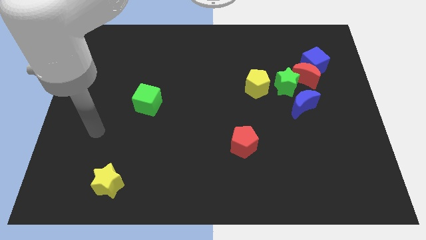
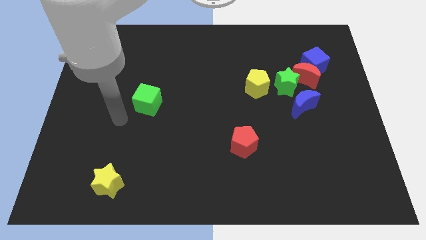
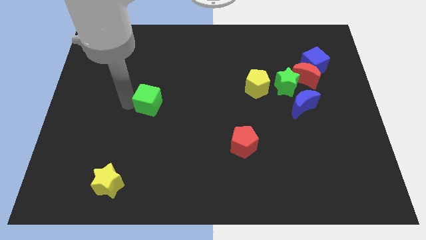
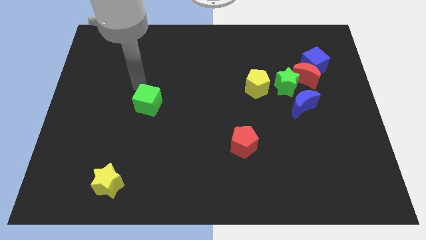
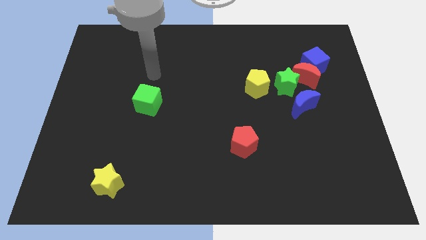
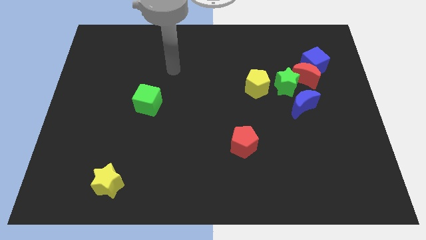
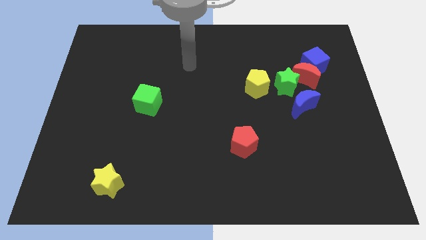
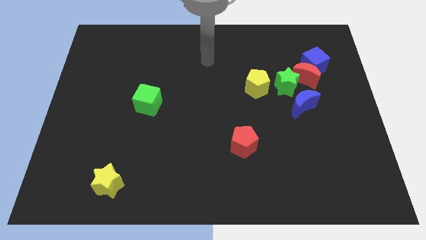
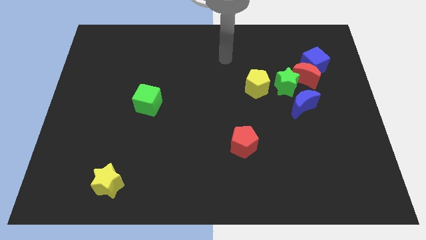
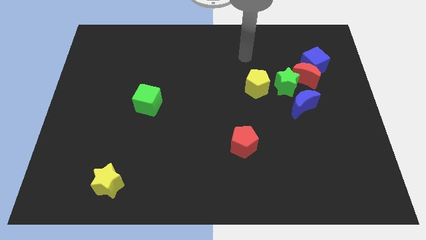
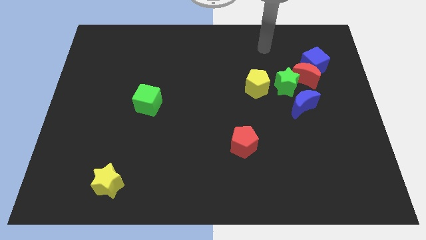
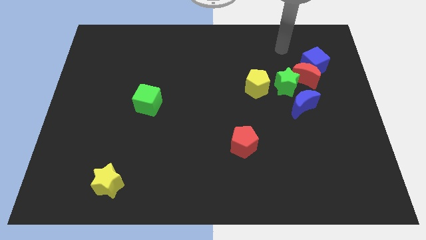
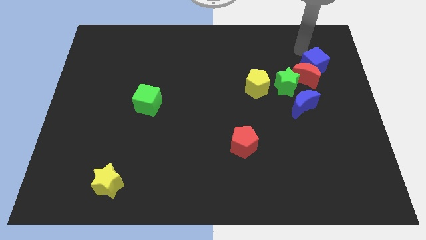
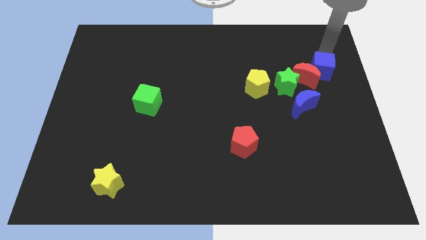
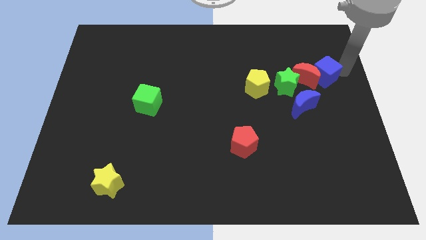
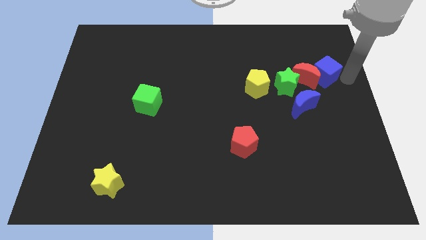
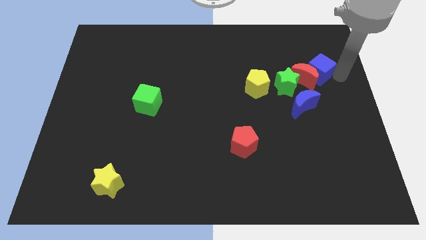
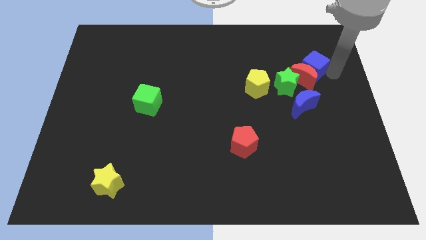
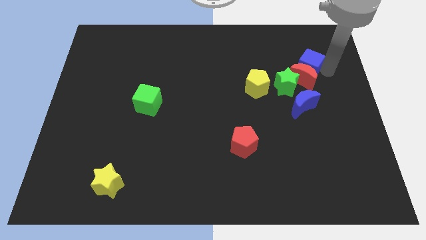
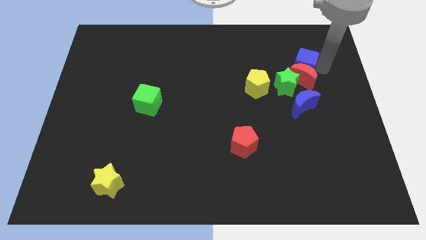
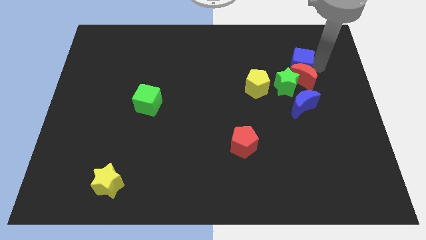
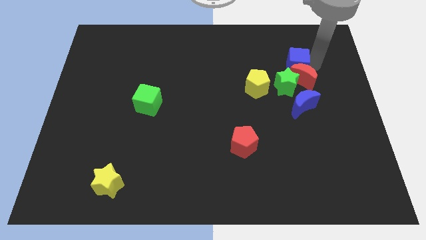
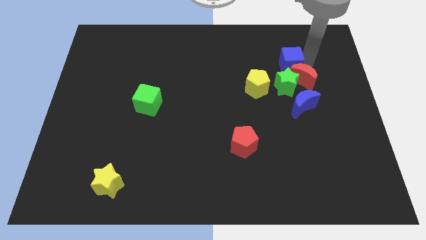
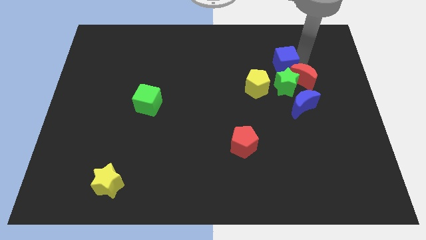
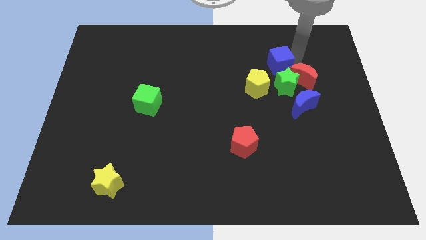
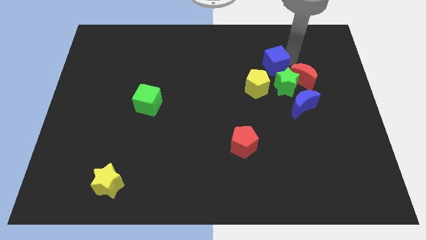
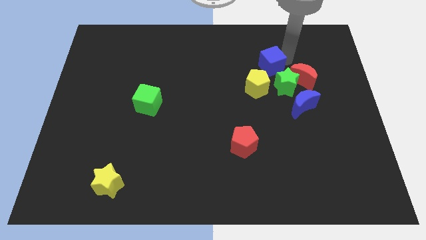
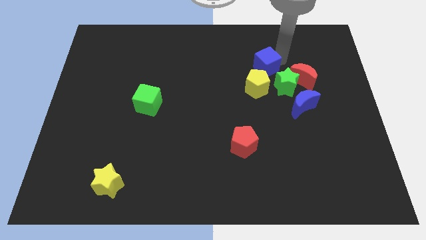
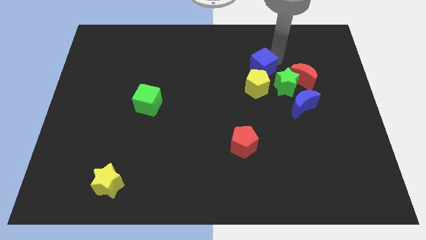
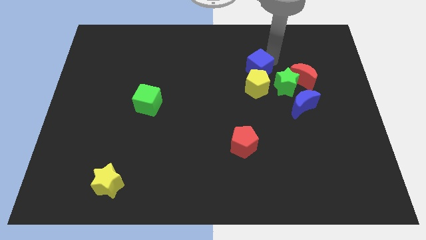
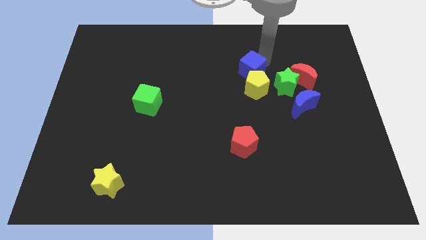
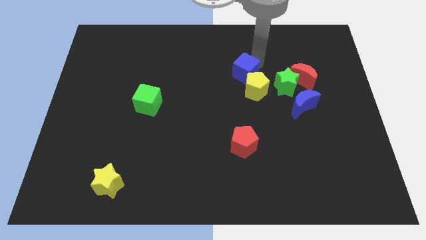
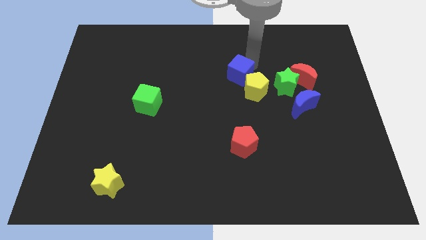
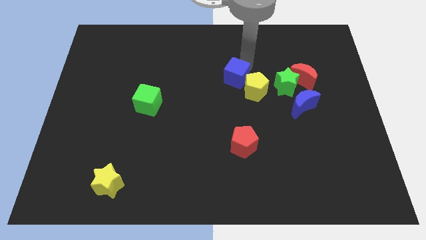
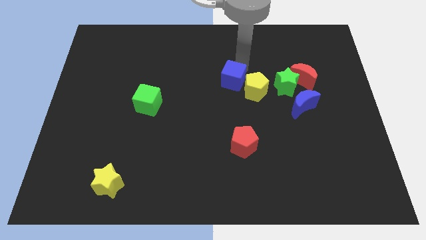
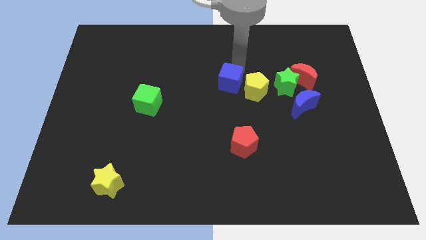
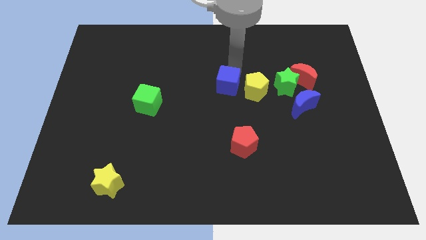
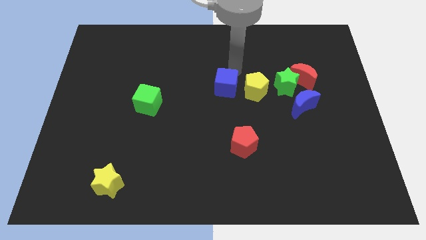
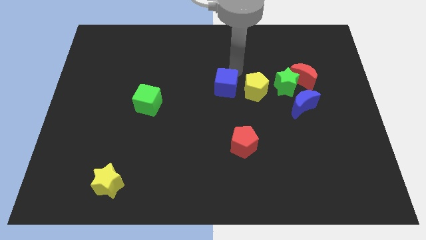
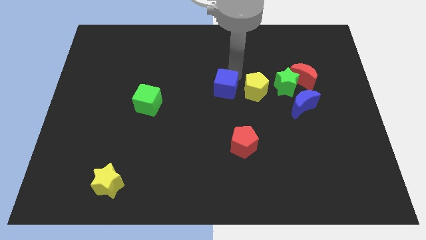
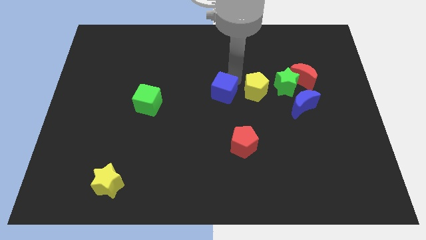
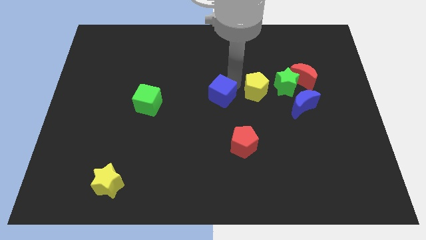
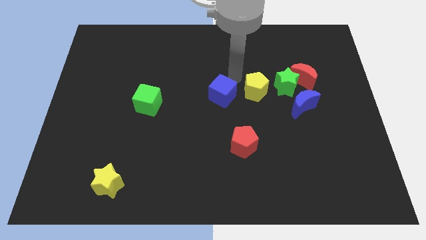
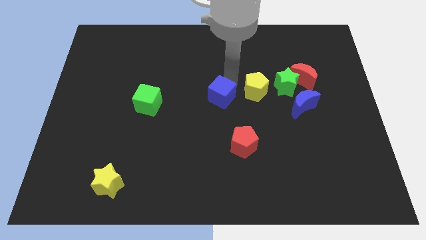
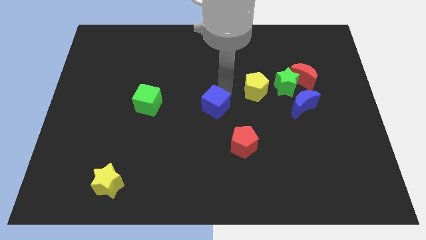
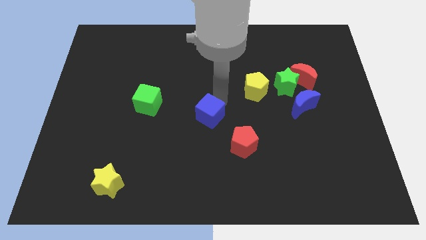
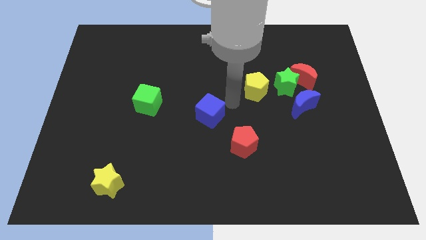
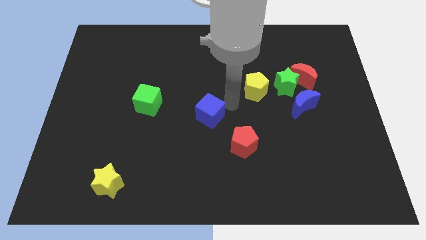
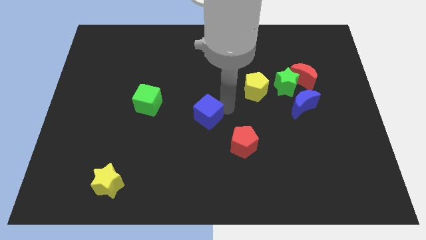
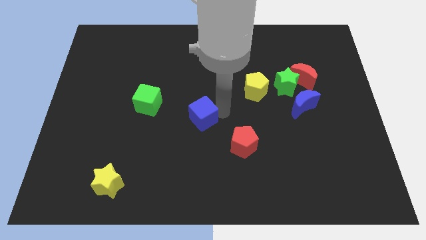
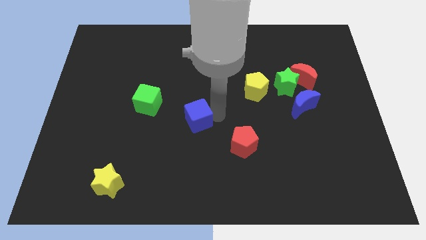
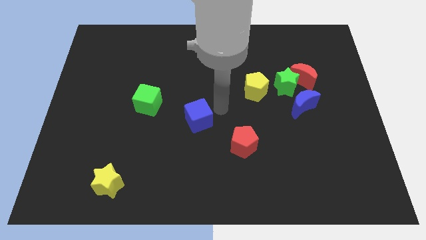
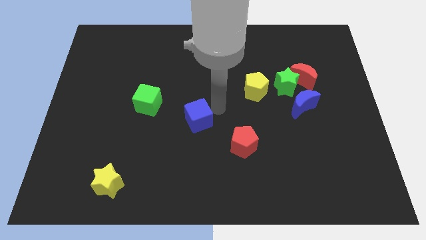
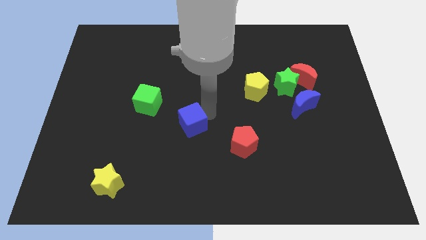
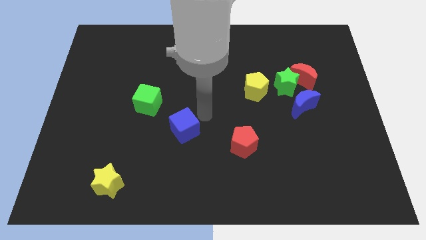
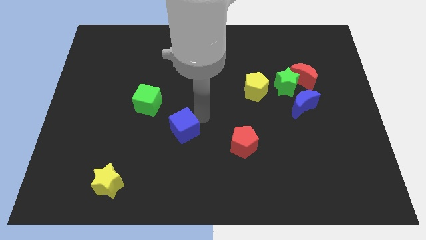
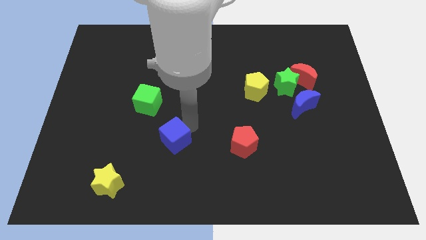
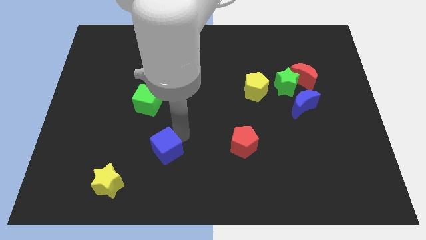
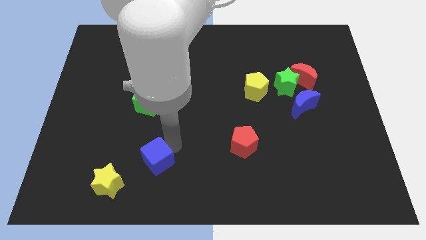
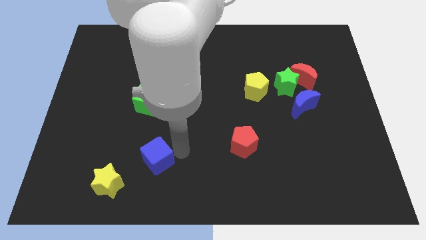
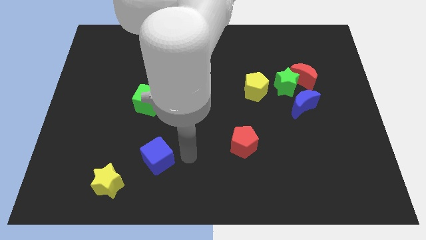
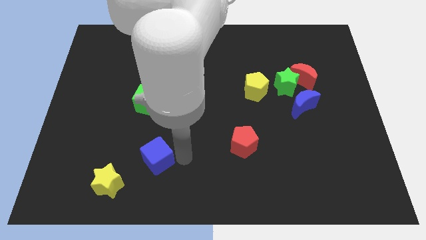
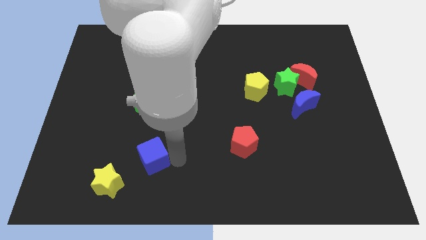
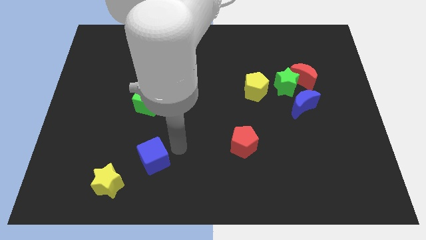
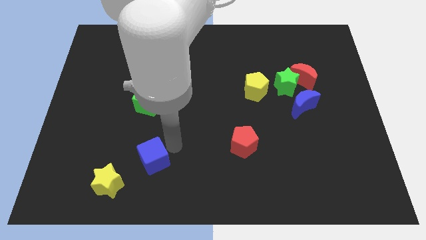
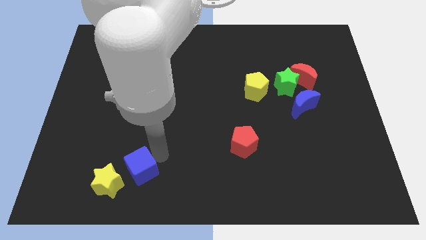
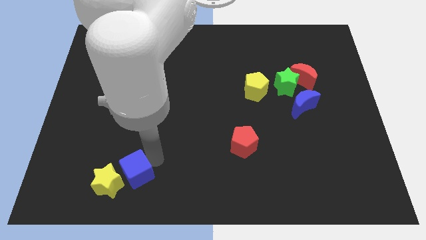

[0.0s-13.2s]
put the blue cube towards the yellow star

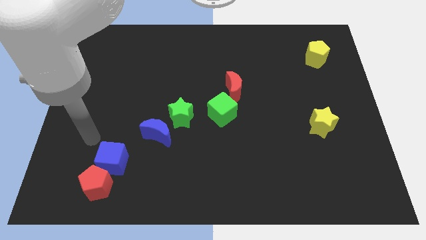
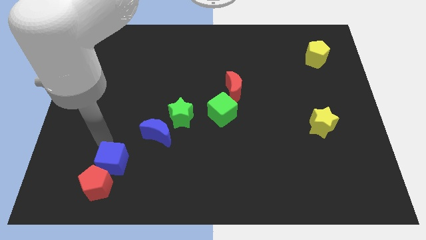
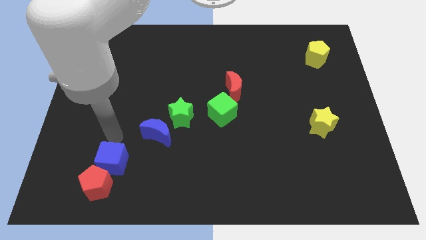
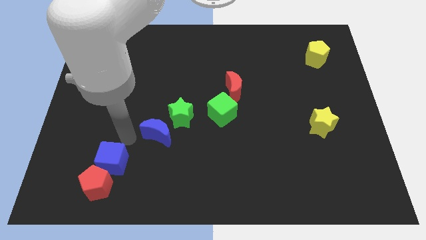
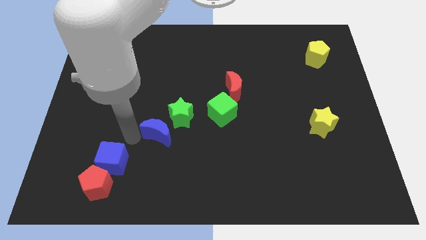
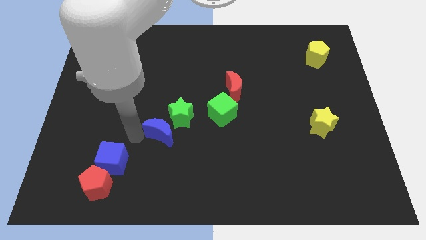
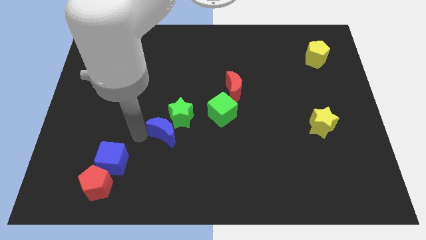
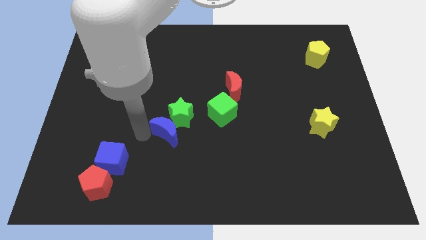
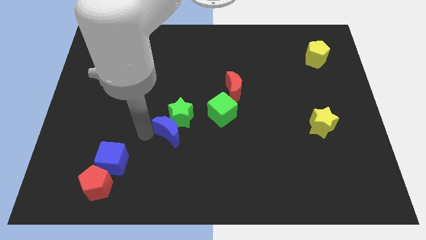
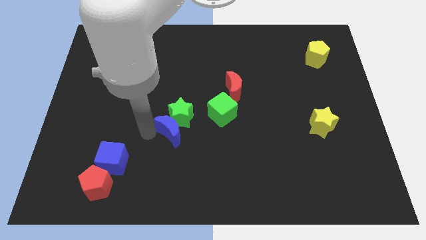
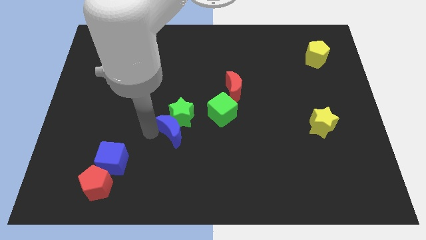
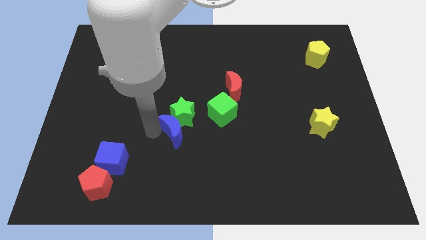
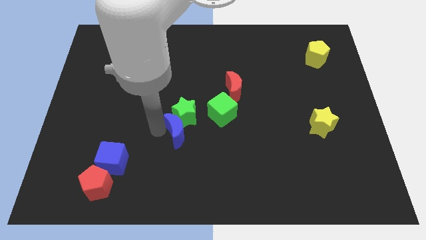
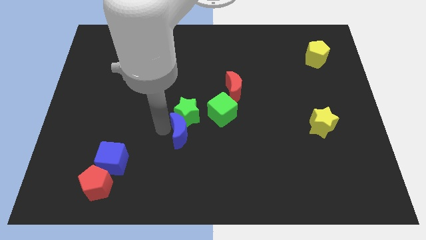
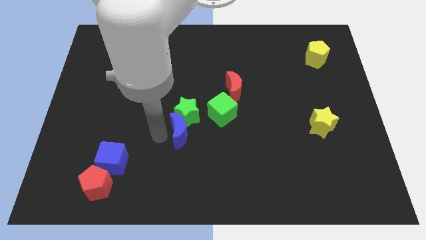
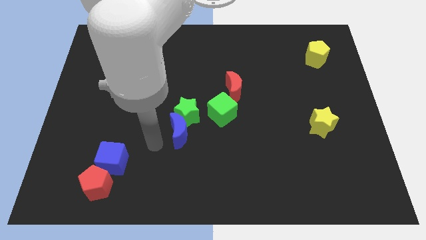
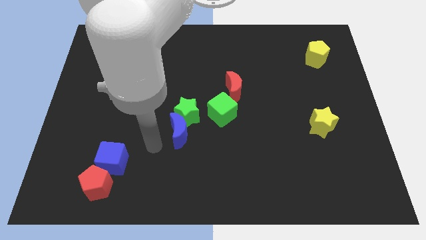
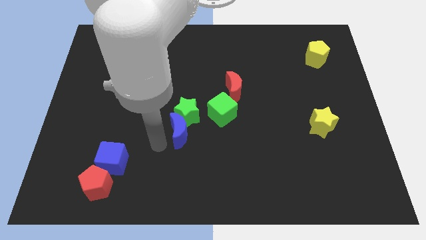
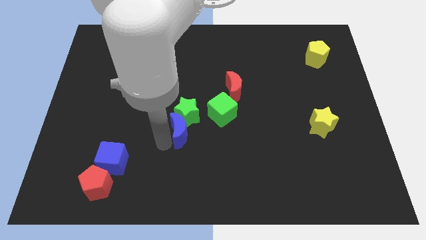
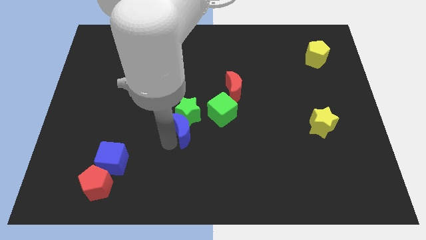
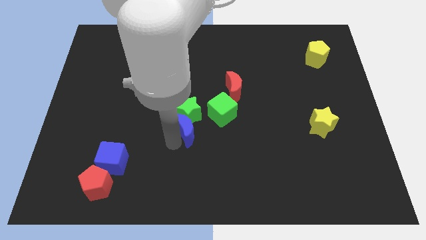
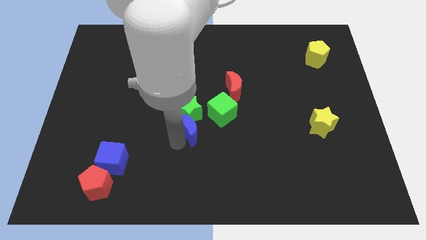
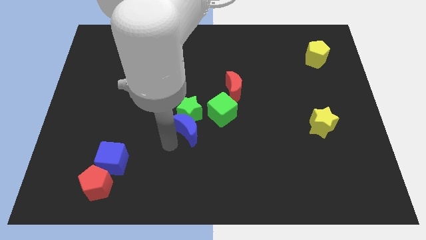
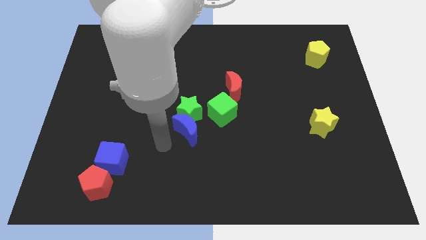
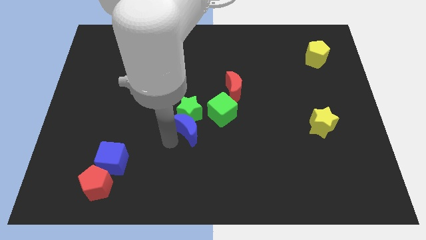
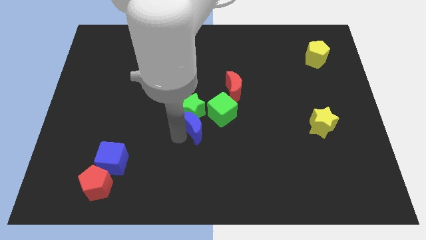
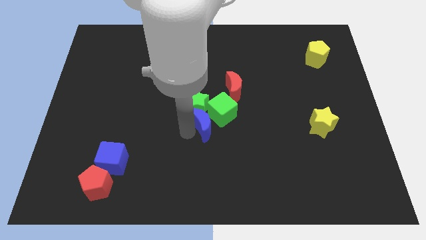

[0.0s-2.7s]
slide the blue moon to the green cube
